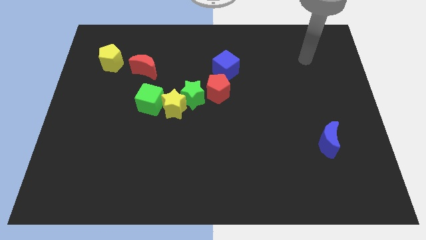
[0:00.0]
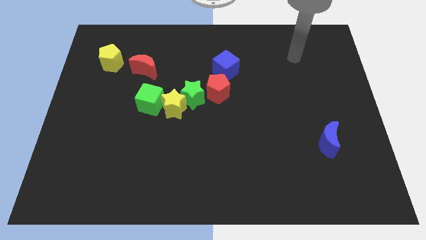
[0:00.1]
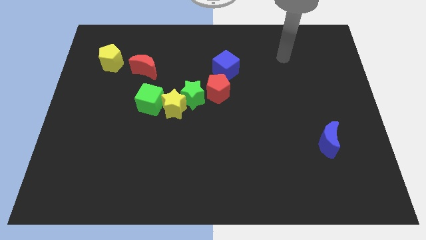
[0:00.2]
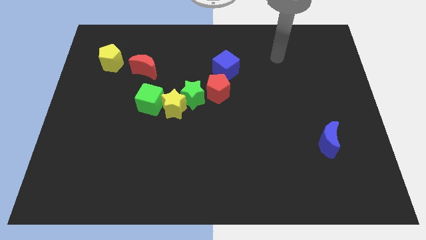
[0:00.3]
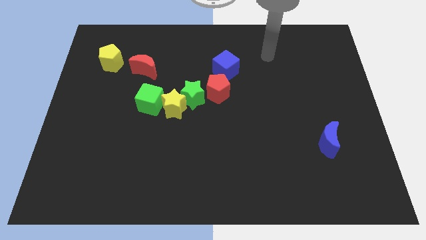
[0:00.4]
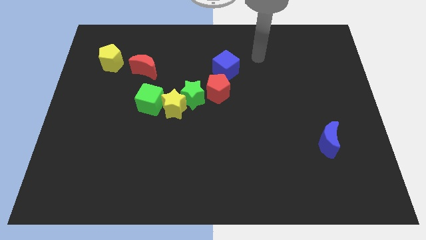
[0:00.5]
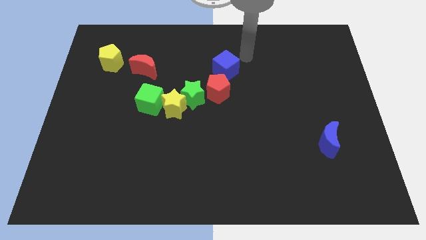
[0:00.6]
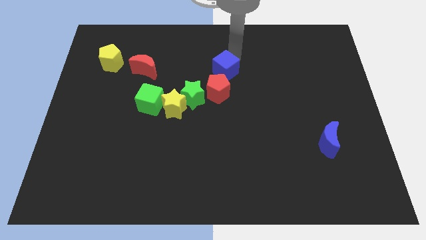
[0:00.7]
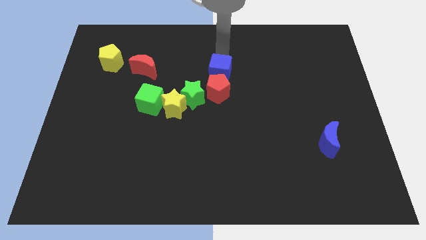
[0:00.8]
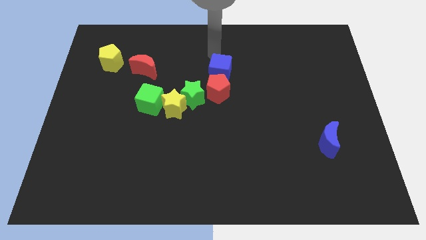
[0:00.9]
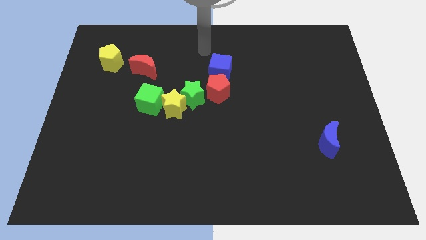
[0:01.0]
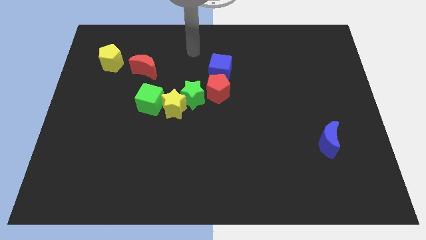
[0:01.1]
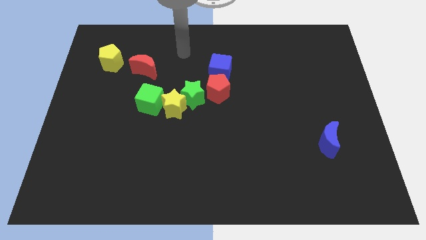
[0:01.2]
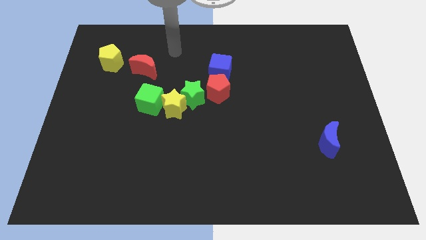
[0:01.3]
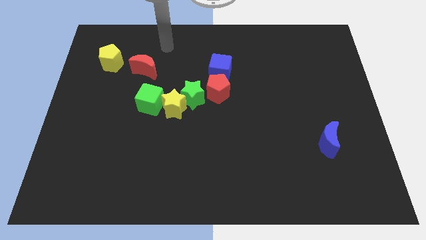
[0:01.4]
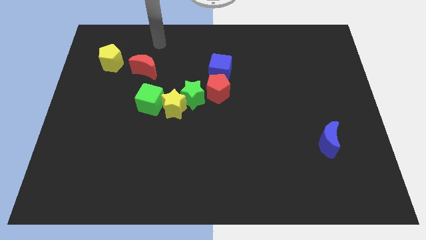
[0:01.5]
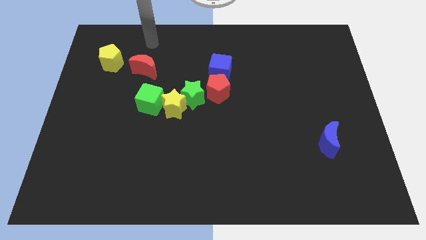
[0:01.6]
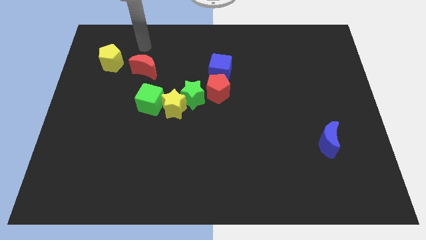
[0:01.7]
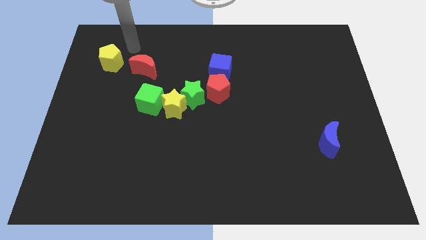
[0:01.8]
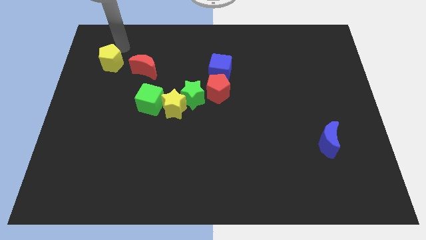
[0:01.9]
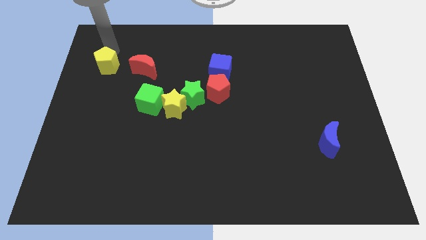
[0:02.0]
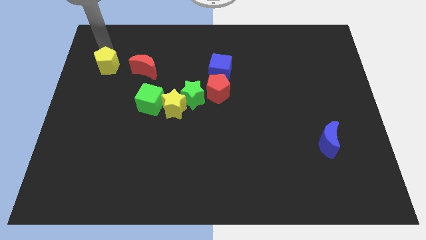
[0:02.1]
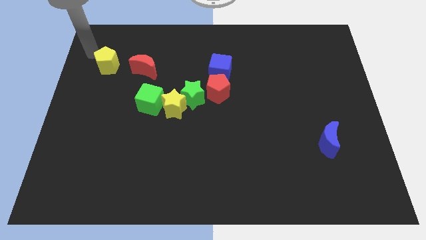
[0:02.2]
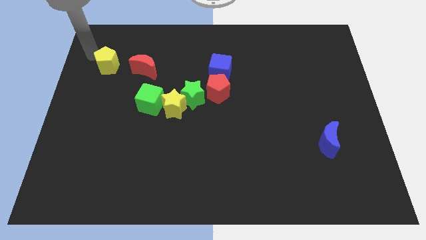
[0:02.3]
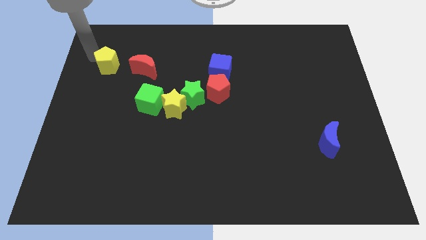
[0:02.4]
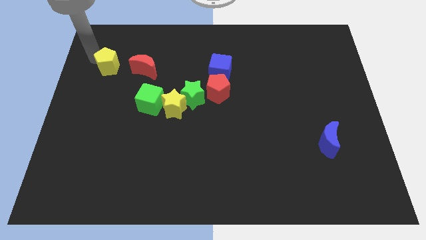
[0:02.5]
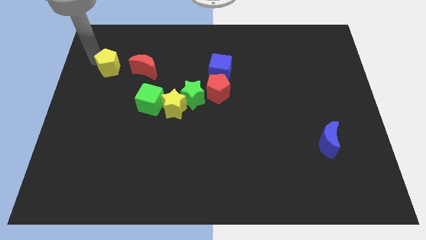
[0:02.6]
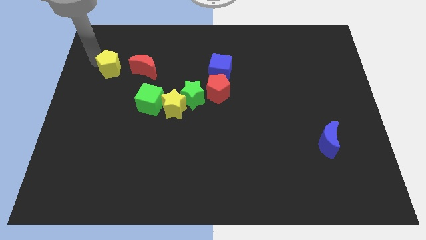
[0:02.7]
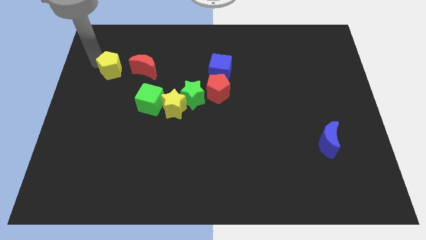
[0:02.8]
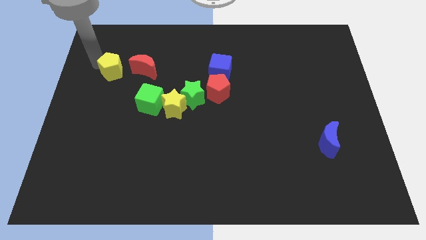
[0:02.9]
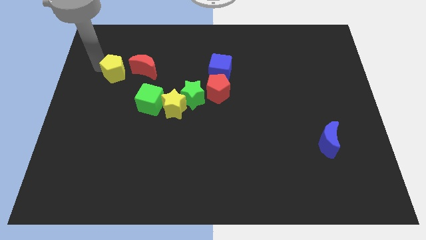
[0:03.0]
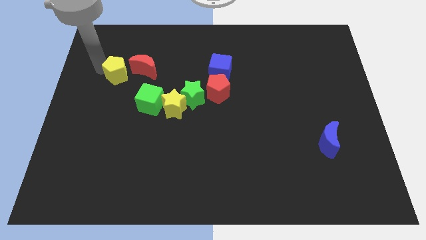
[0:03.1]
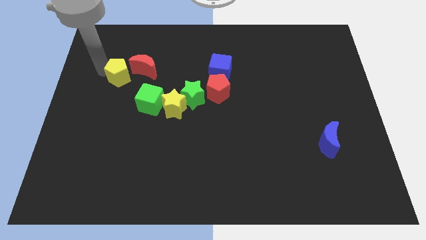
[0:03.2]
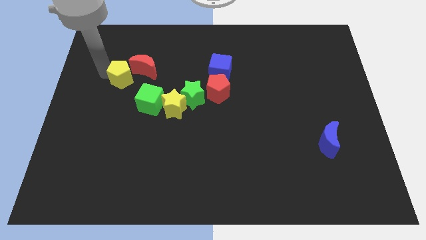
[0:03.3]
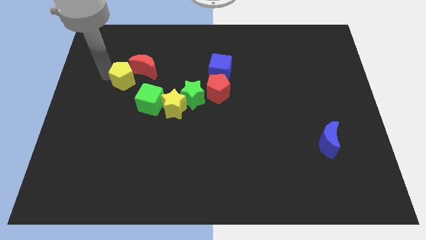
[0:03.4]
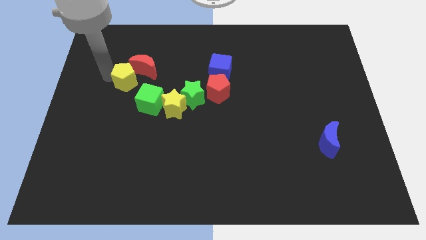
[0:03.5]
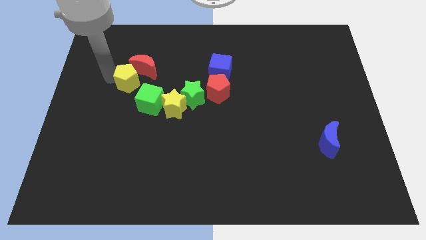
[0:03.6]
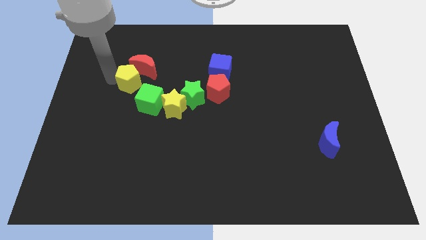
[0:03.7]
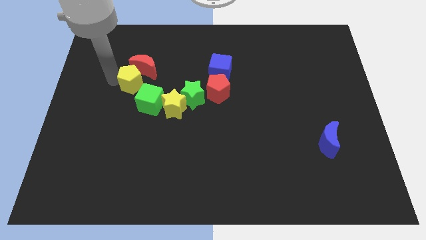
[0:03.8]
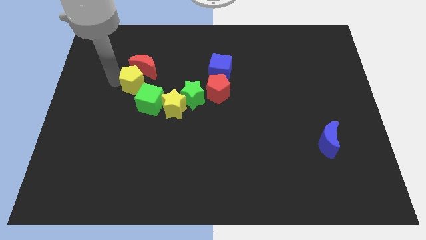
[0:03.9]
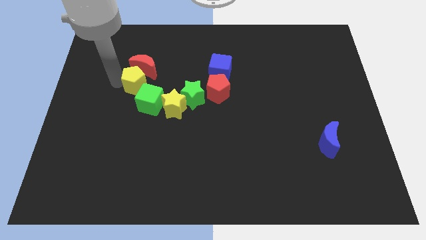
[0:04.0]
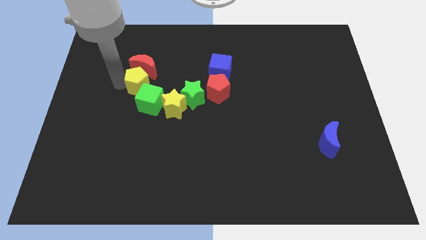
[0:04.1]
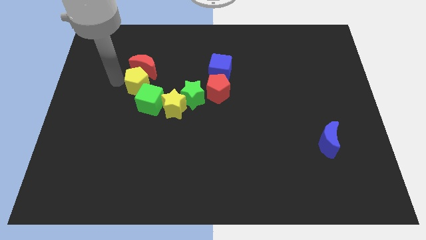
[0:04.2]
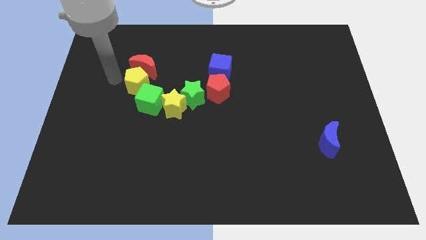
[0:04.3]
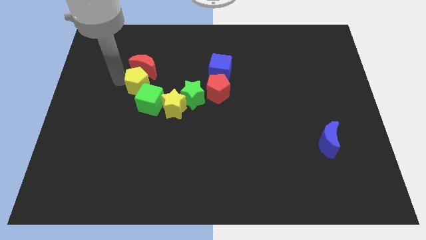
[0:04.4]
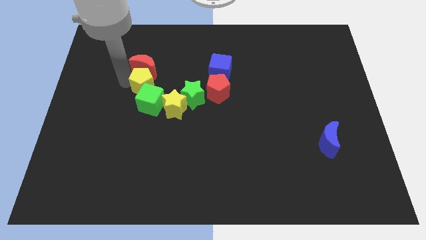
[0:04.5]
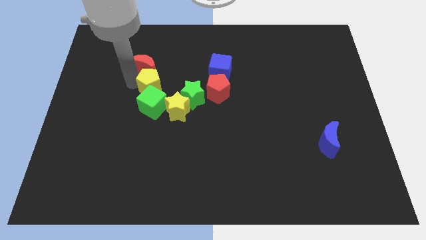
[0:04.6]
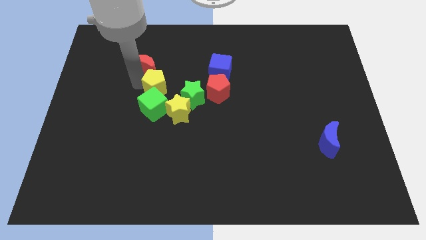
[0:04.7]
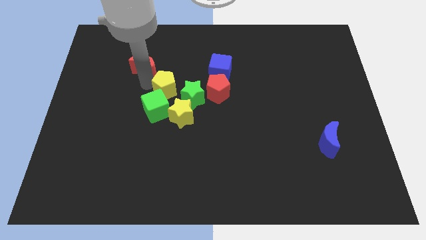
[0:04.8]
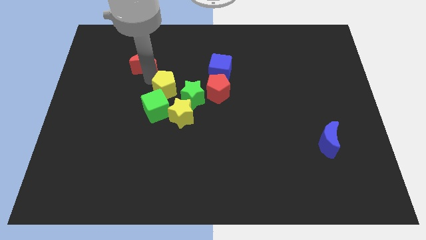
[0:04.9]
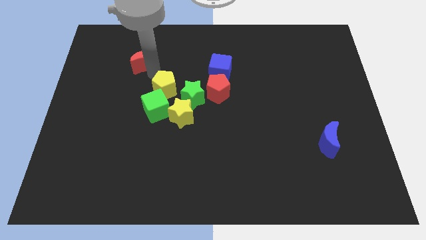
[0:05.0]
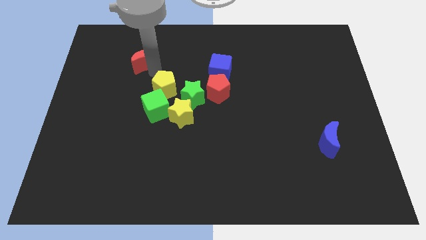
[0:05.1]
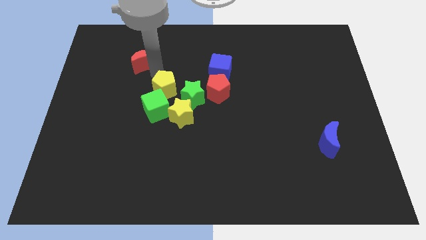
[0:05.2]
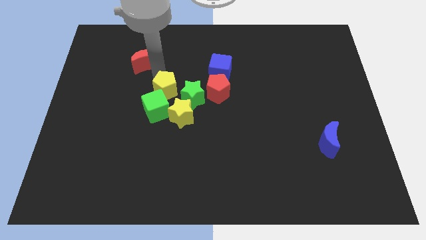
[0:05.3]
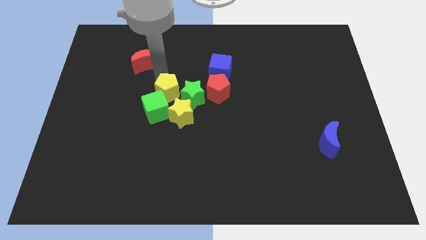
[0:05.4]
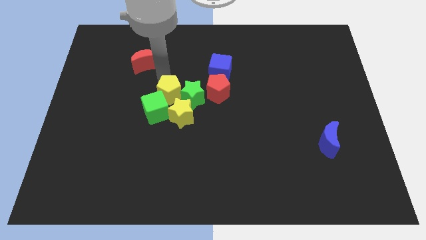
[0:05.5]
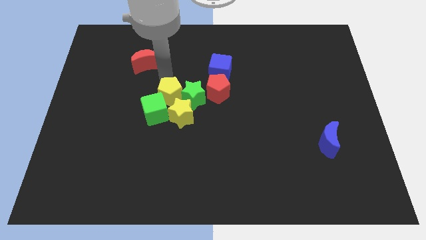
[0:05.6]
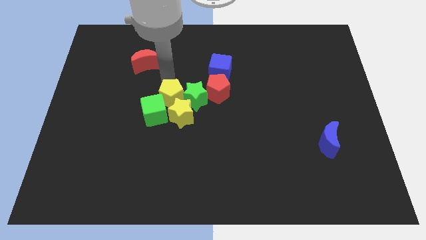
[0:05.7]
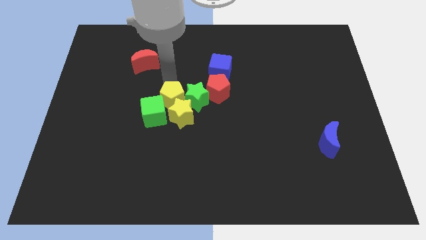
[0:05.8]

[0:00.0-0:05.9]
push the yellow pentagon to the yellow star

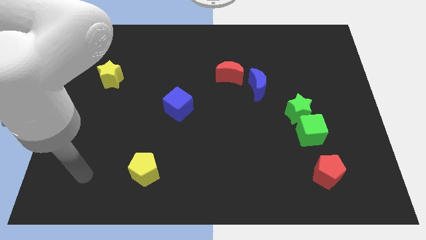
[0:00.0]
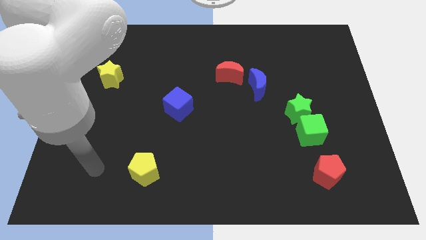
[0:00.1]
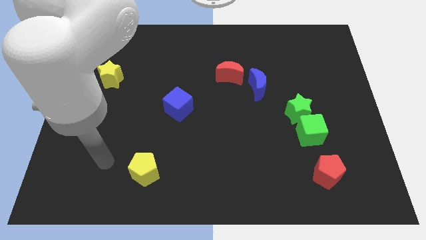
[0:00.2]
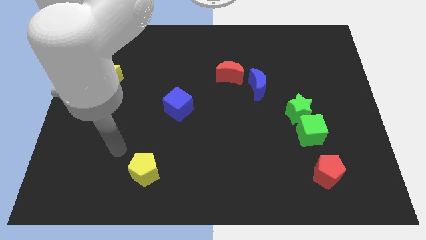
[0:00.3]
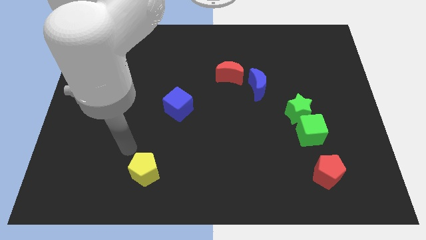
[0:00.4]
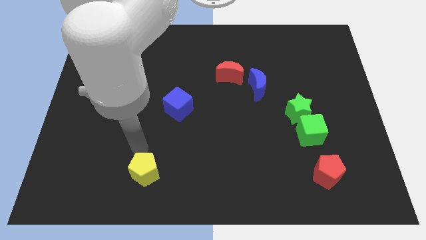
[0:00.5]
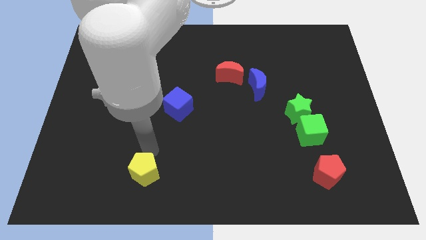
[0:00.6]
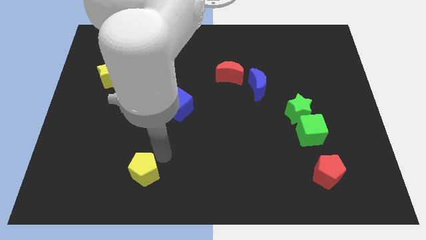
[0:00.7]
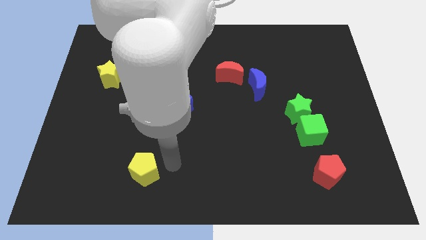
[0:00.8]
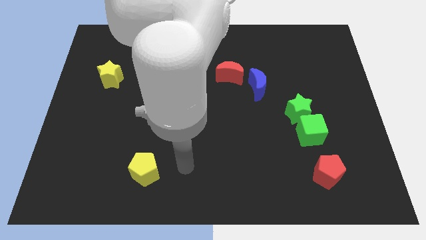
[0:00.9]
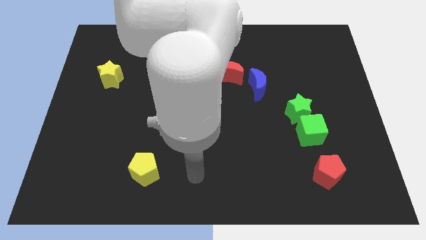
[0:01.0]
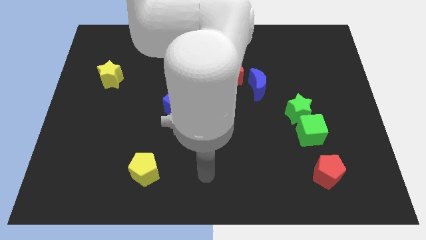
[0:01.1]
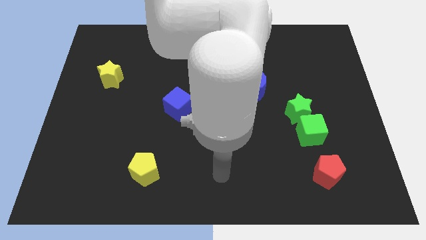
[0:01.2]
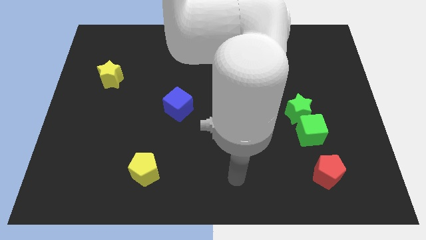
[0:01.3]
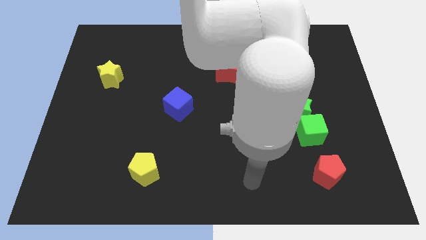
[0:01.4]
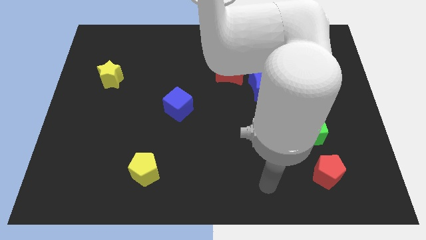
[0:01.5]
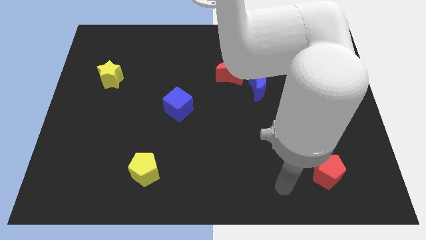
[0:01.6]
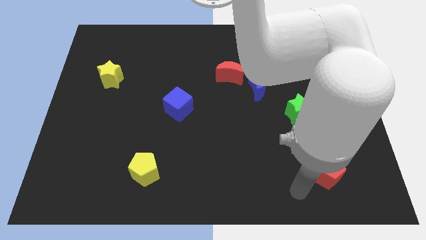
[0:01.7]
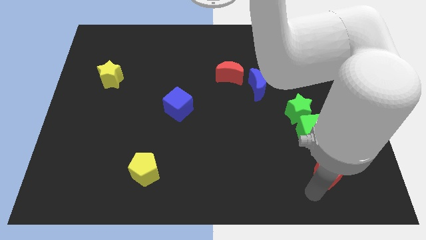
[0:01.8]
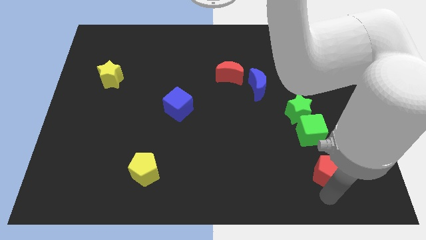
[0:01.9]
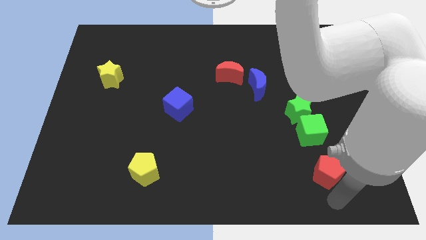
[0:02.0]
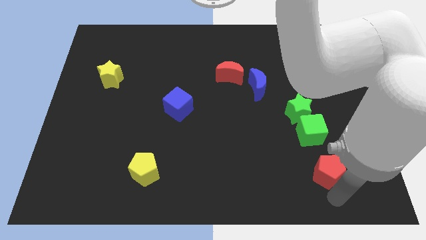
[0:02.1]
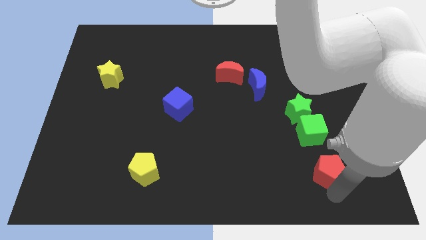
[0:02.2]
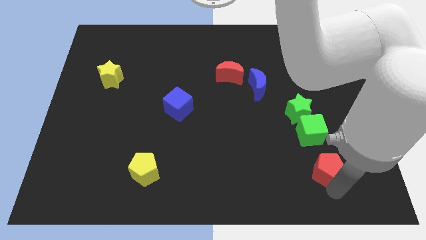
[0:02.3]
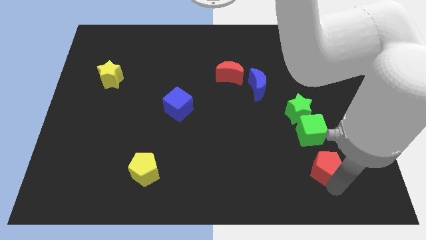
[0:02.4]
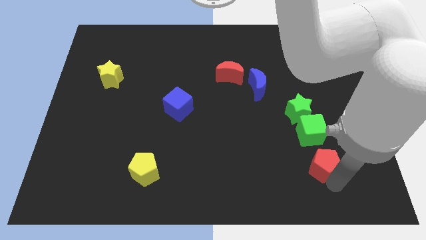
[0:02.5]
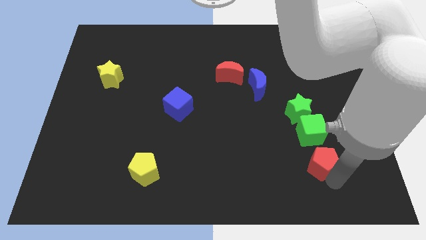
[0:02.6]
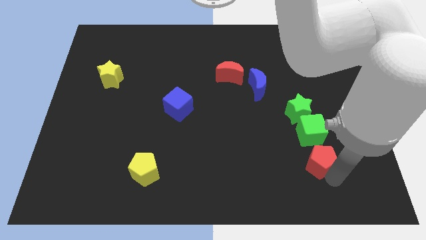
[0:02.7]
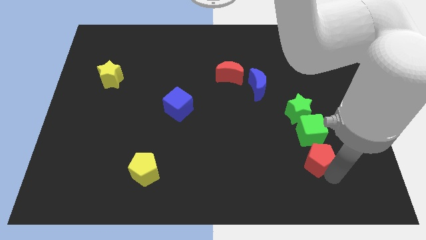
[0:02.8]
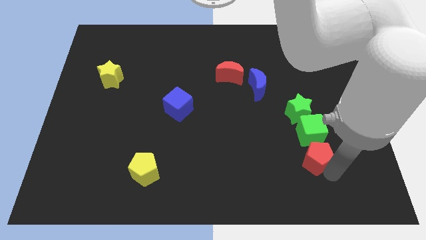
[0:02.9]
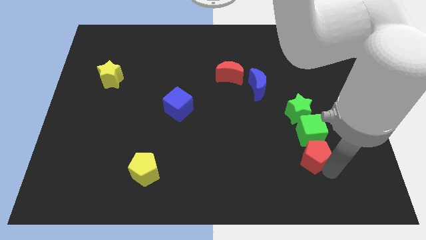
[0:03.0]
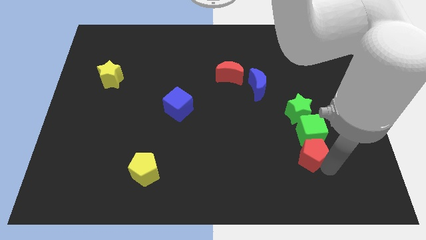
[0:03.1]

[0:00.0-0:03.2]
put the red pentagon next to the green cube
